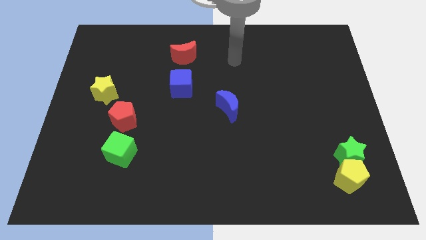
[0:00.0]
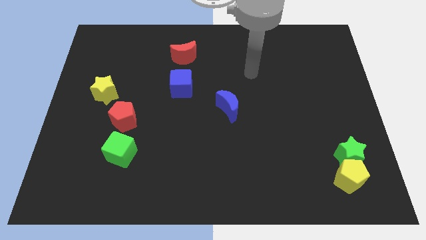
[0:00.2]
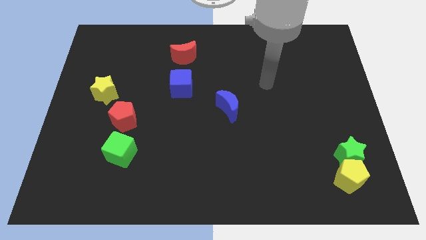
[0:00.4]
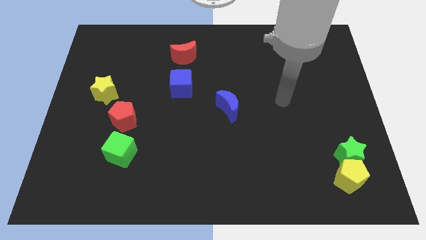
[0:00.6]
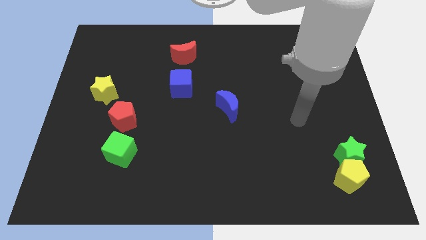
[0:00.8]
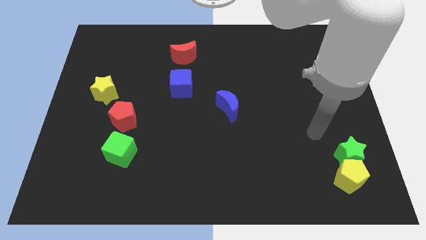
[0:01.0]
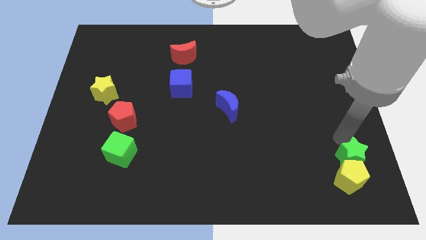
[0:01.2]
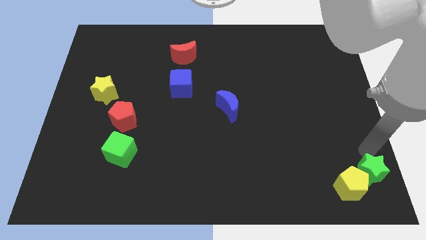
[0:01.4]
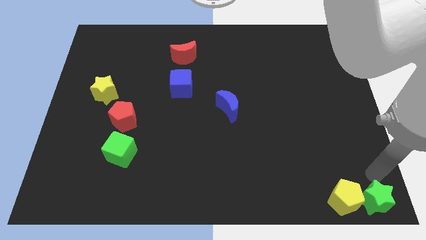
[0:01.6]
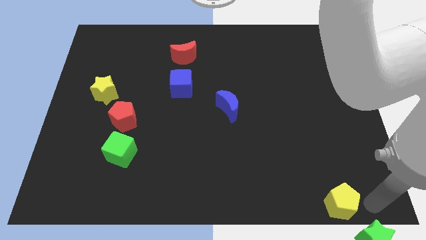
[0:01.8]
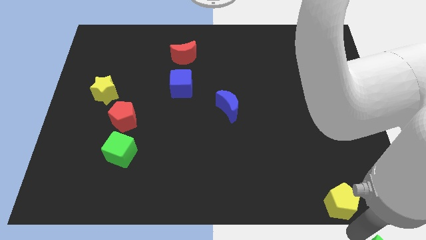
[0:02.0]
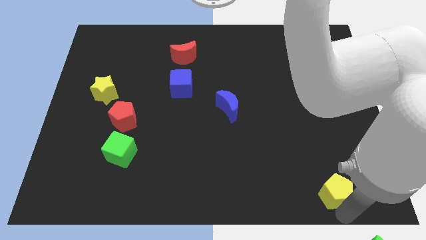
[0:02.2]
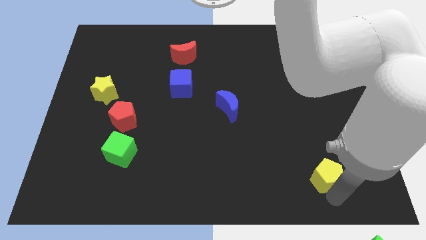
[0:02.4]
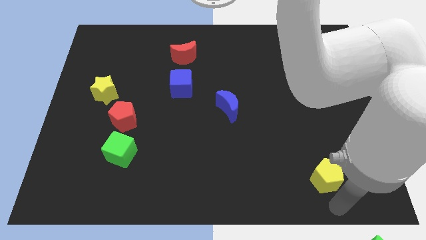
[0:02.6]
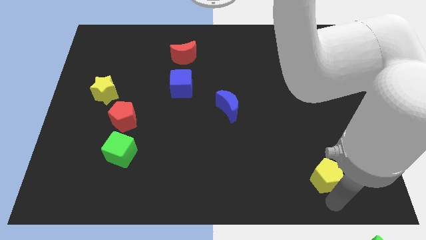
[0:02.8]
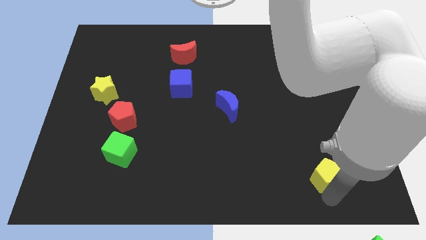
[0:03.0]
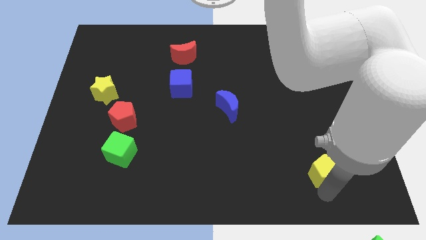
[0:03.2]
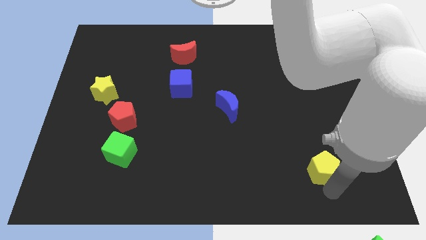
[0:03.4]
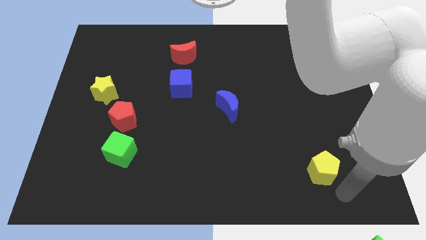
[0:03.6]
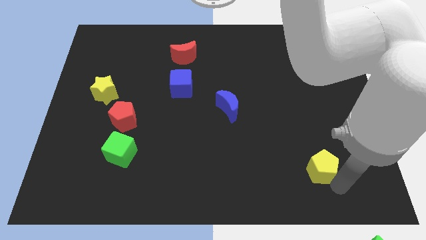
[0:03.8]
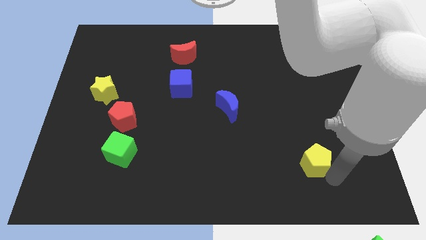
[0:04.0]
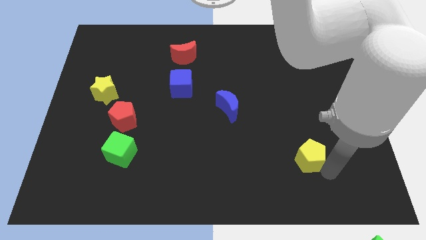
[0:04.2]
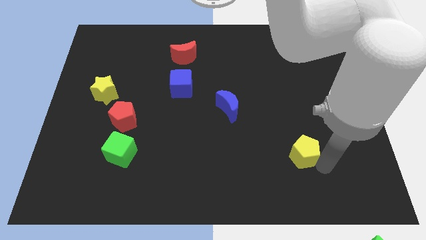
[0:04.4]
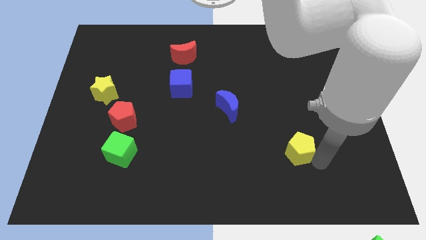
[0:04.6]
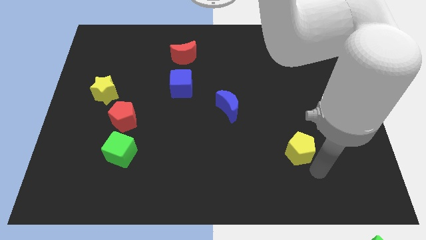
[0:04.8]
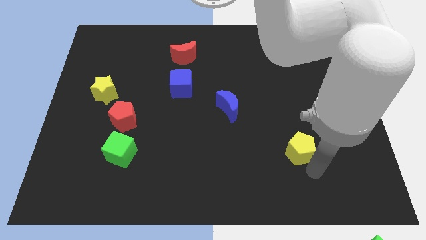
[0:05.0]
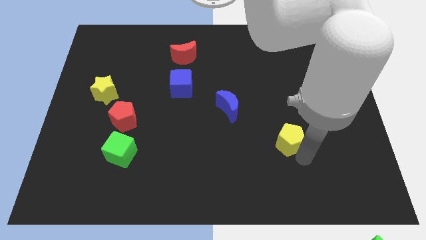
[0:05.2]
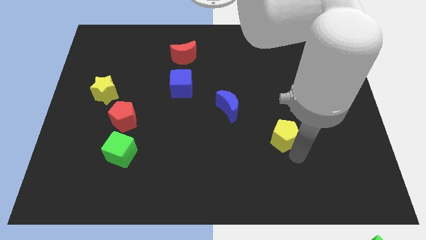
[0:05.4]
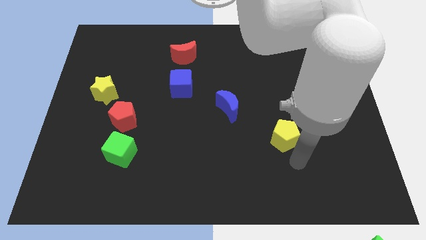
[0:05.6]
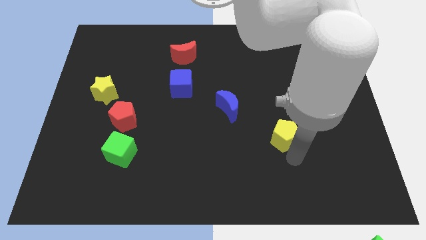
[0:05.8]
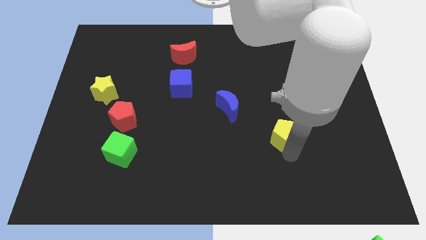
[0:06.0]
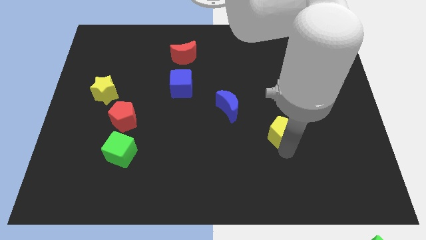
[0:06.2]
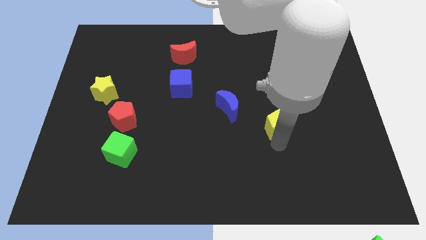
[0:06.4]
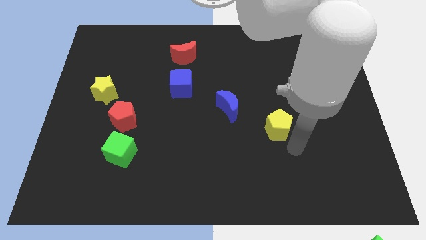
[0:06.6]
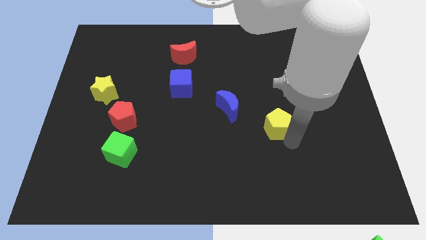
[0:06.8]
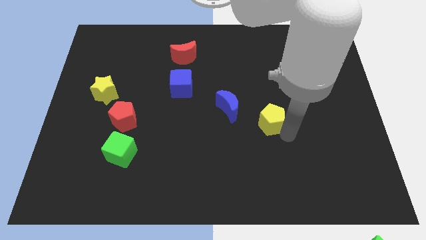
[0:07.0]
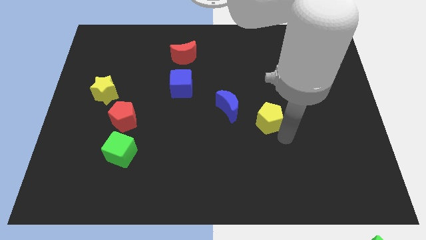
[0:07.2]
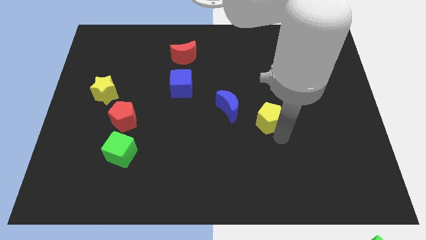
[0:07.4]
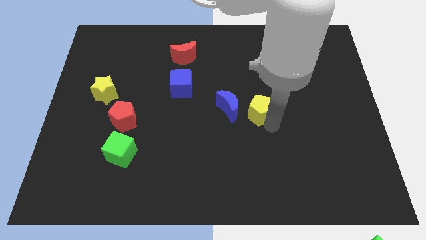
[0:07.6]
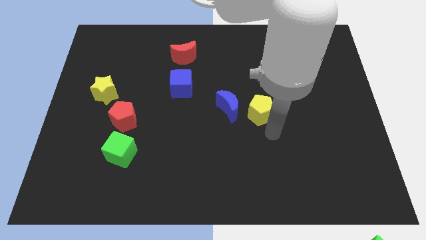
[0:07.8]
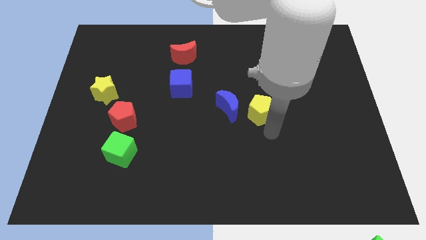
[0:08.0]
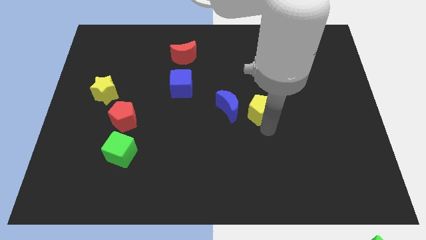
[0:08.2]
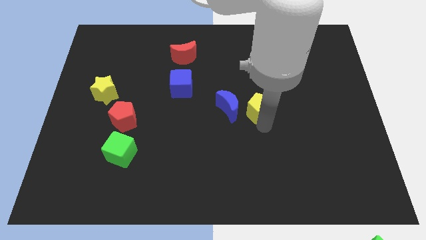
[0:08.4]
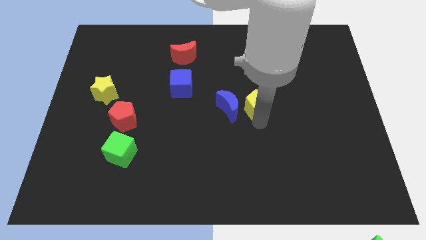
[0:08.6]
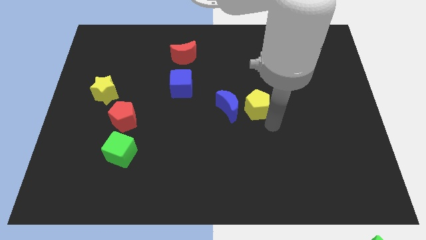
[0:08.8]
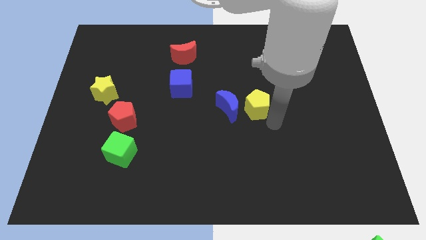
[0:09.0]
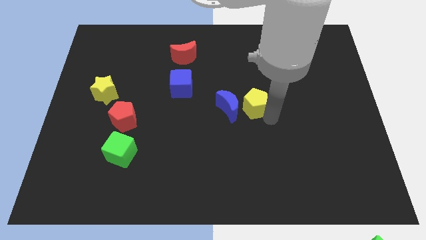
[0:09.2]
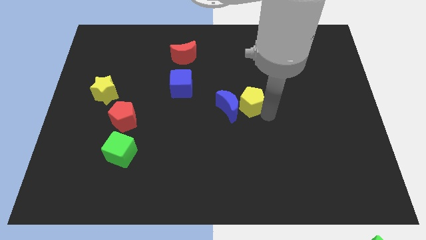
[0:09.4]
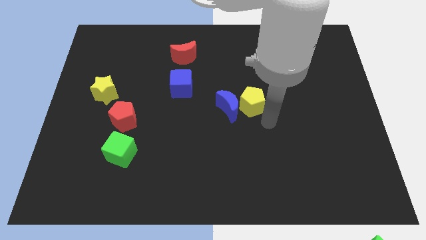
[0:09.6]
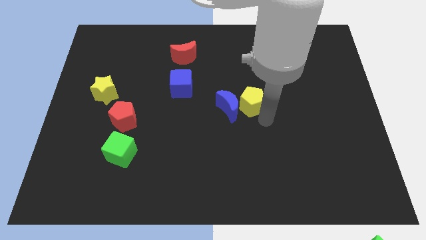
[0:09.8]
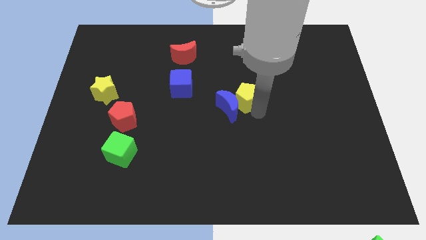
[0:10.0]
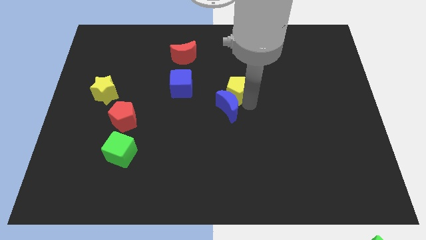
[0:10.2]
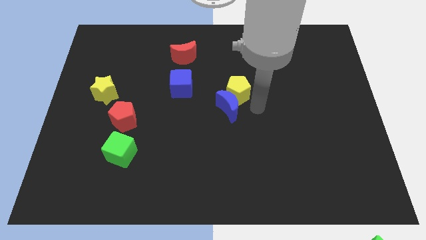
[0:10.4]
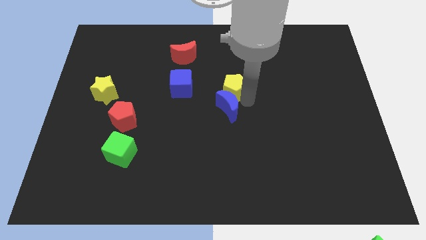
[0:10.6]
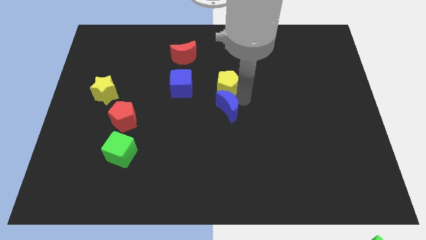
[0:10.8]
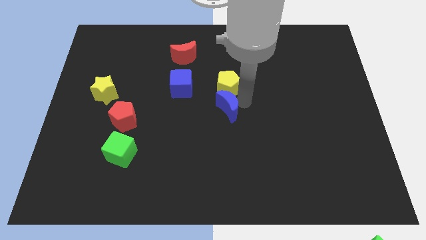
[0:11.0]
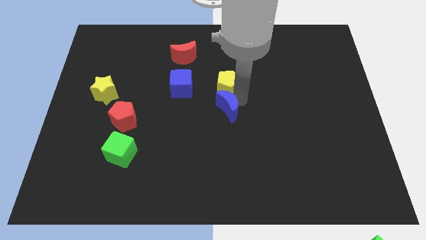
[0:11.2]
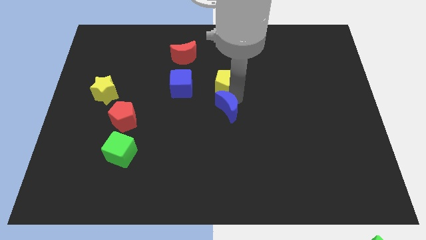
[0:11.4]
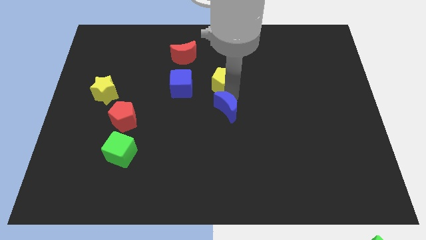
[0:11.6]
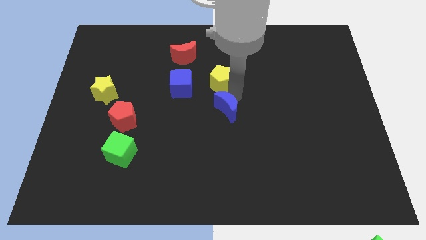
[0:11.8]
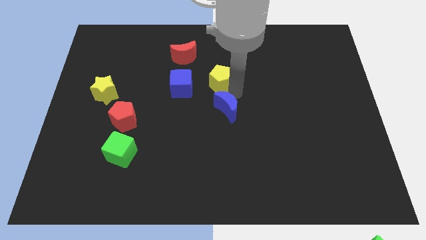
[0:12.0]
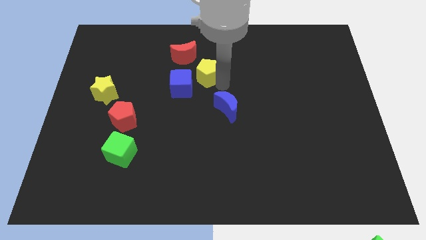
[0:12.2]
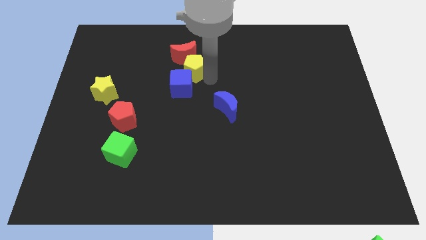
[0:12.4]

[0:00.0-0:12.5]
push the yellow pentagon to the red moon

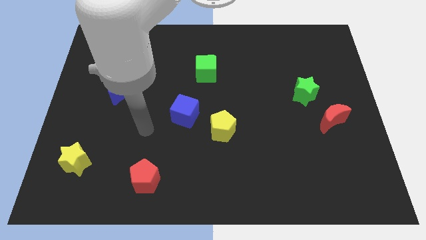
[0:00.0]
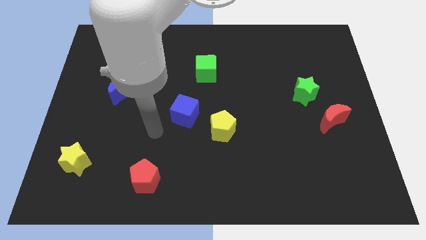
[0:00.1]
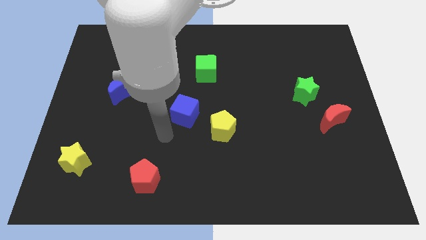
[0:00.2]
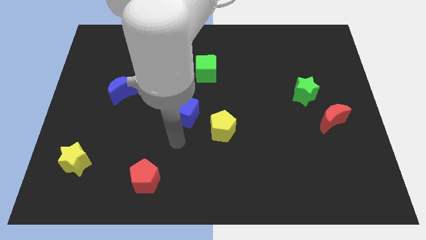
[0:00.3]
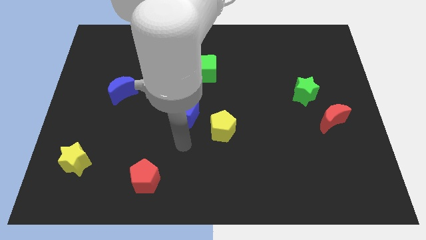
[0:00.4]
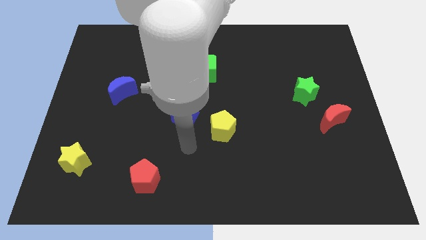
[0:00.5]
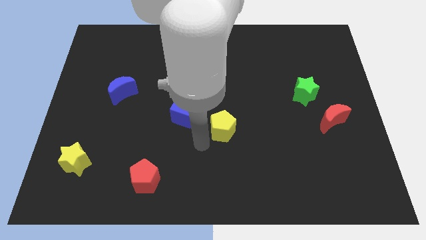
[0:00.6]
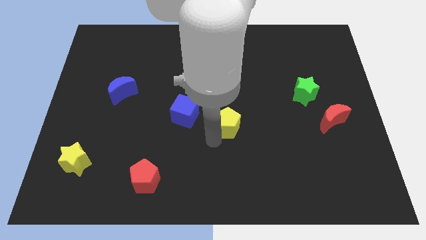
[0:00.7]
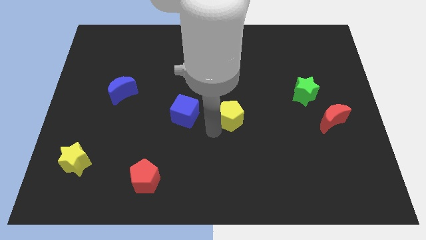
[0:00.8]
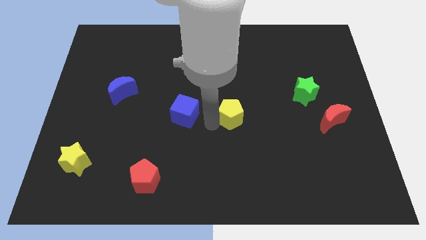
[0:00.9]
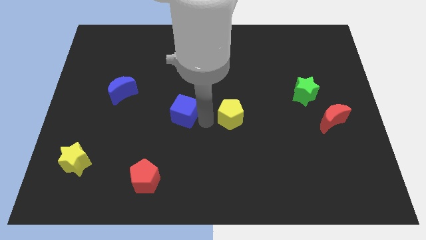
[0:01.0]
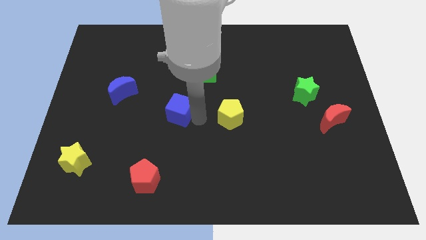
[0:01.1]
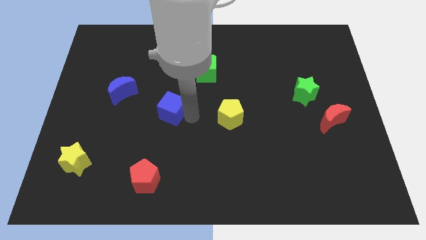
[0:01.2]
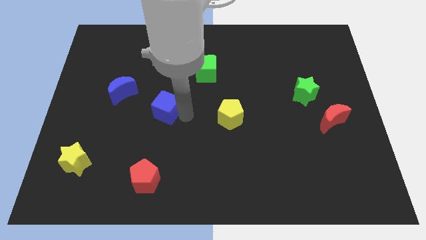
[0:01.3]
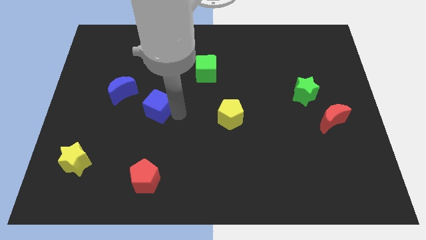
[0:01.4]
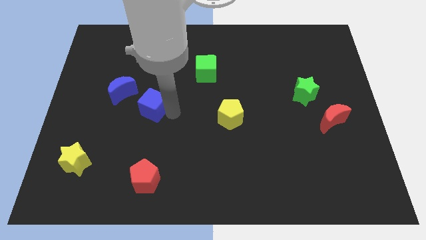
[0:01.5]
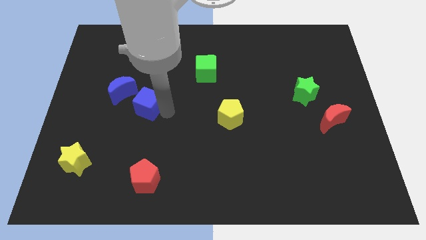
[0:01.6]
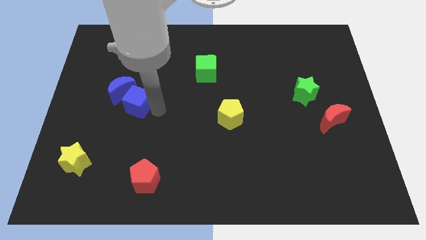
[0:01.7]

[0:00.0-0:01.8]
move the blue cube to the blue moon
